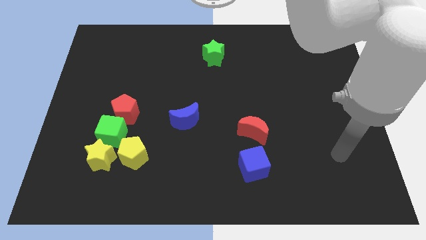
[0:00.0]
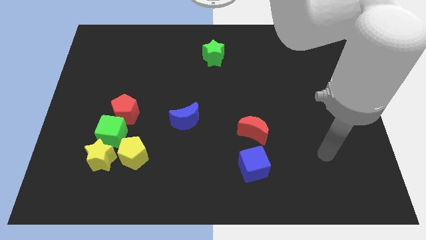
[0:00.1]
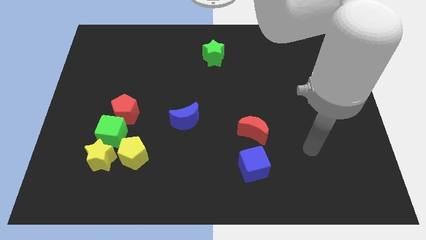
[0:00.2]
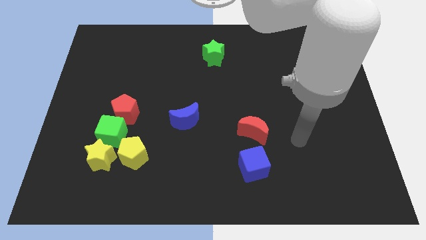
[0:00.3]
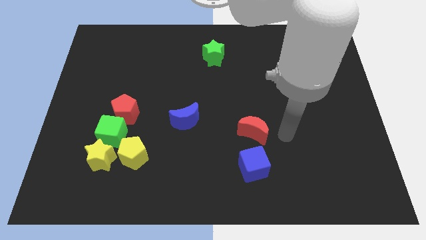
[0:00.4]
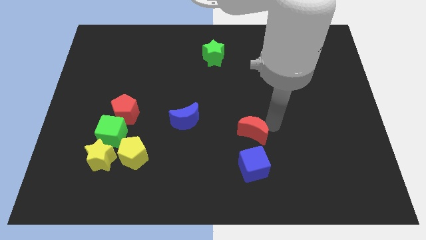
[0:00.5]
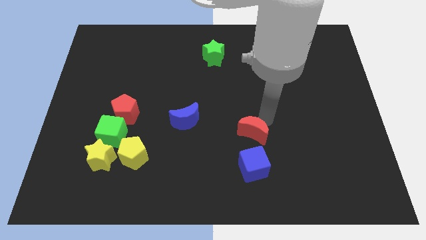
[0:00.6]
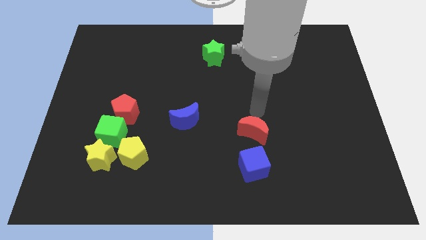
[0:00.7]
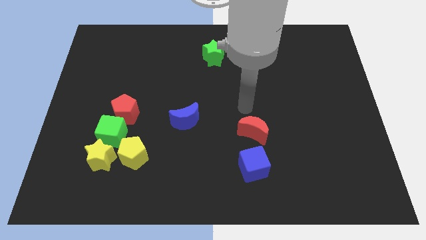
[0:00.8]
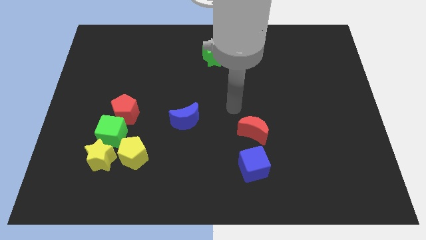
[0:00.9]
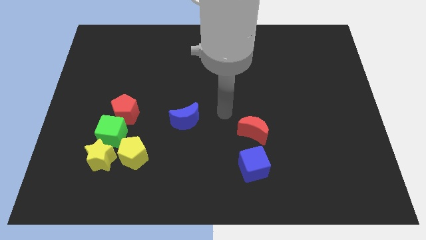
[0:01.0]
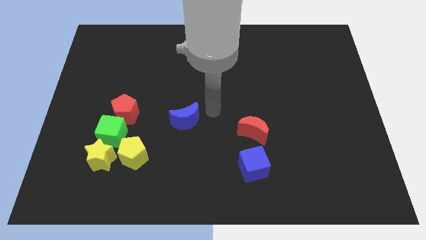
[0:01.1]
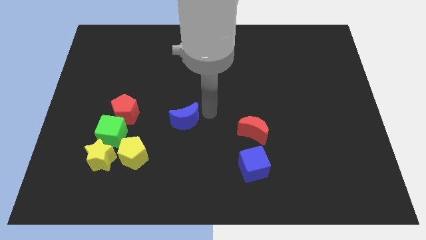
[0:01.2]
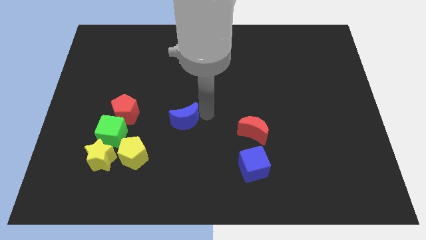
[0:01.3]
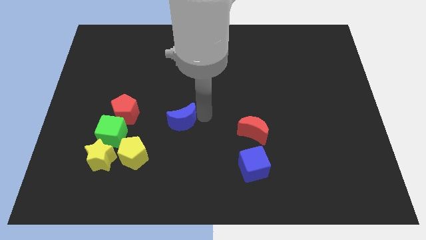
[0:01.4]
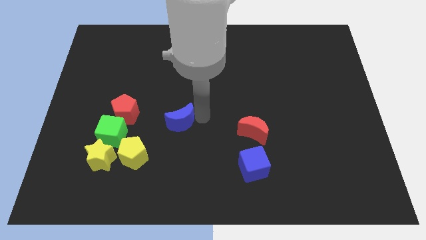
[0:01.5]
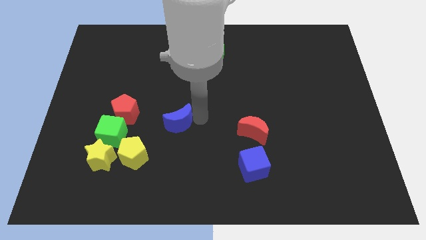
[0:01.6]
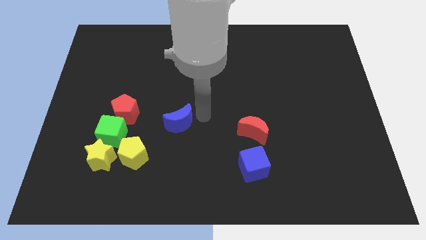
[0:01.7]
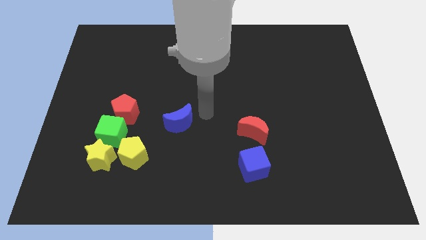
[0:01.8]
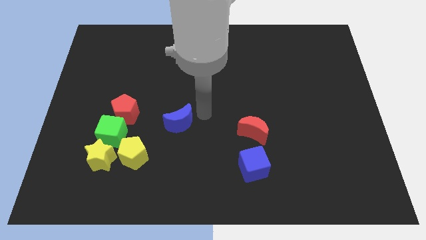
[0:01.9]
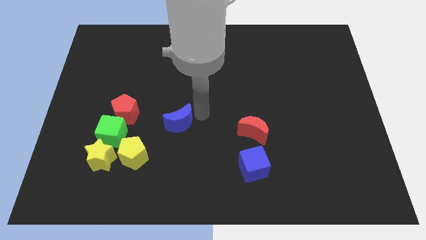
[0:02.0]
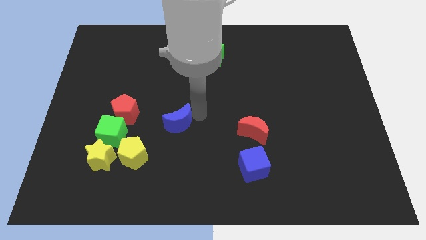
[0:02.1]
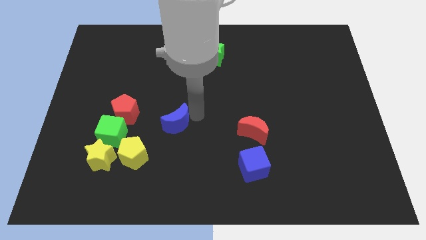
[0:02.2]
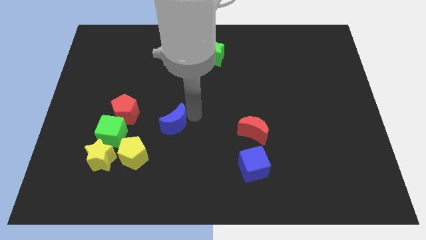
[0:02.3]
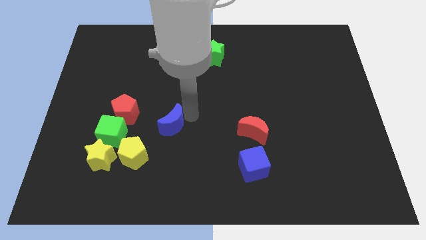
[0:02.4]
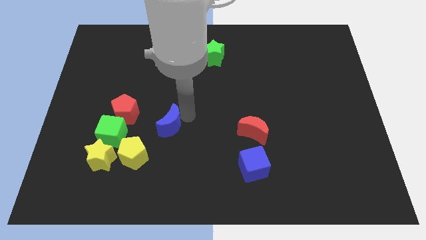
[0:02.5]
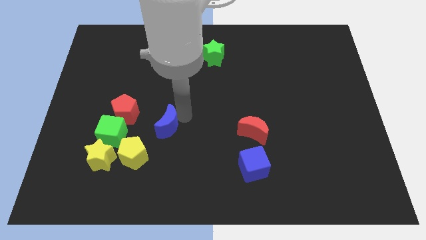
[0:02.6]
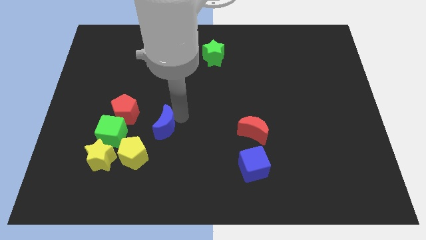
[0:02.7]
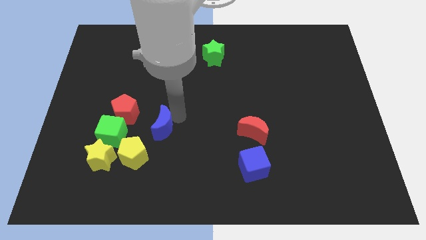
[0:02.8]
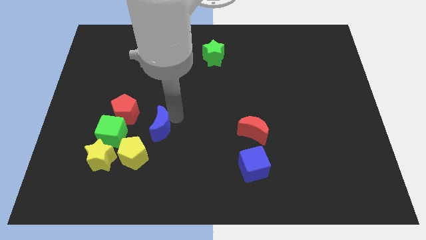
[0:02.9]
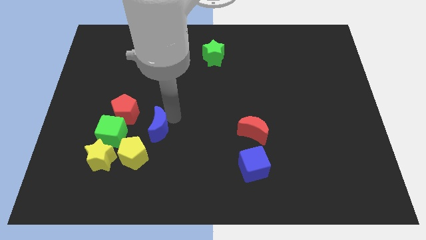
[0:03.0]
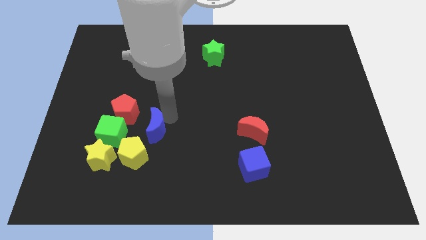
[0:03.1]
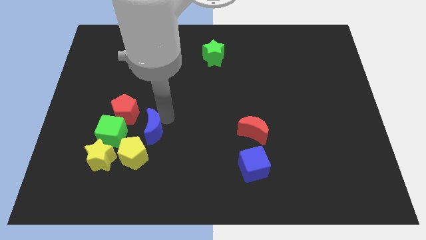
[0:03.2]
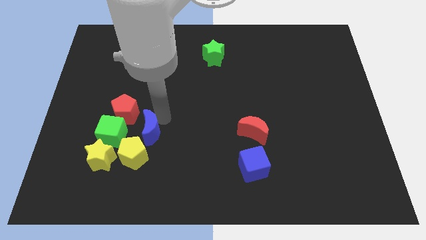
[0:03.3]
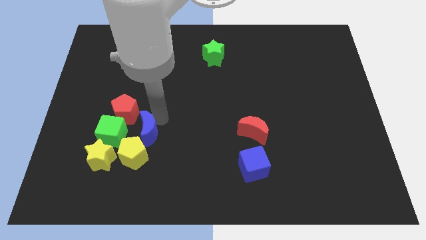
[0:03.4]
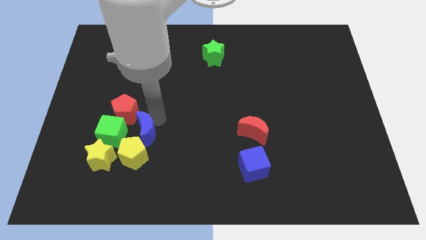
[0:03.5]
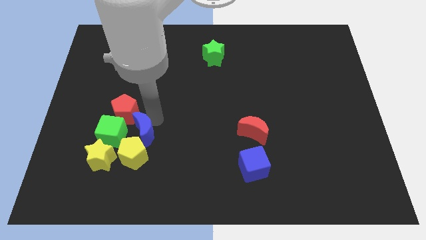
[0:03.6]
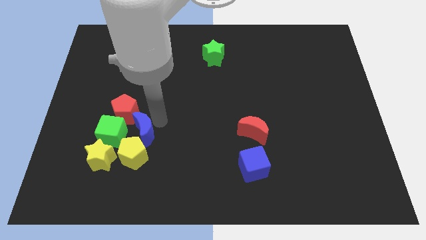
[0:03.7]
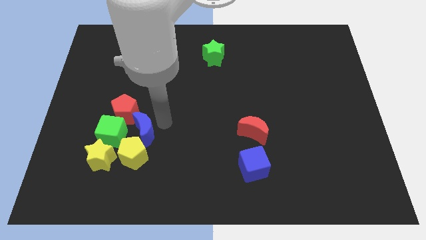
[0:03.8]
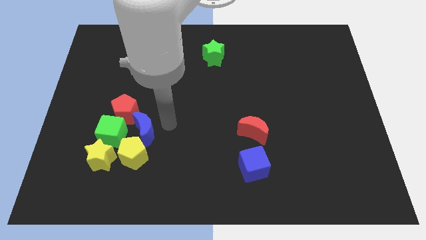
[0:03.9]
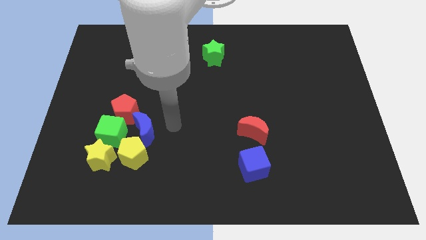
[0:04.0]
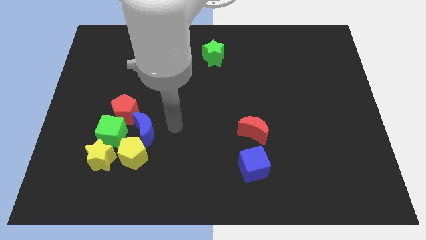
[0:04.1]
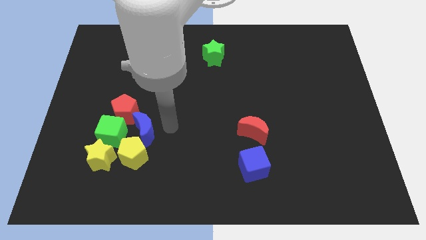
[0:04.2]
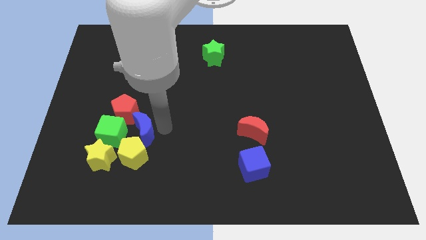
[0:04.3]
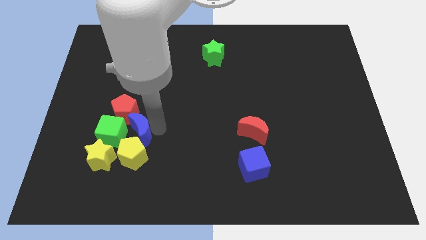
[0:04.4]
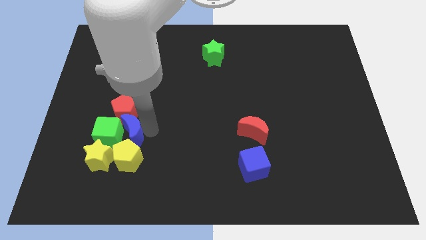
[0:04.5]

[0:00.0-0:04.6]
slide the blue moon to the green cube

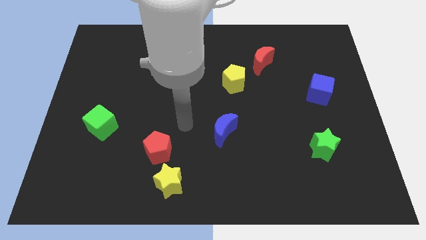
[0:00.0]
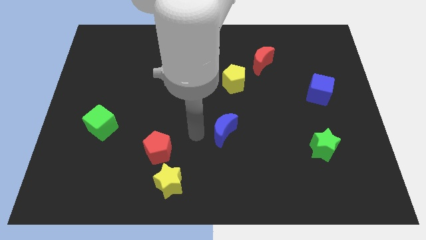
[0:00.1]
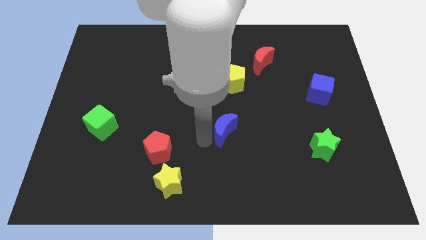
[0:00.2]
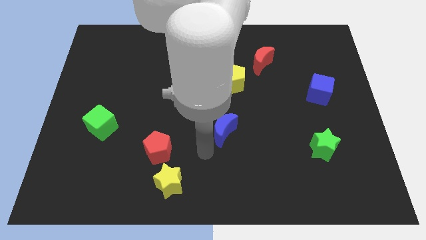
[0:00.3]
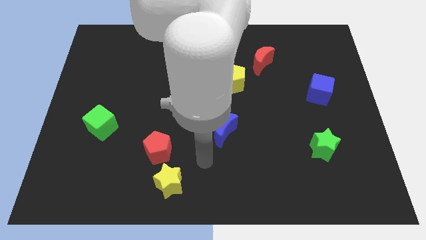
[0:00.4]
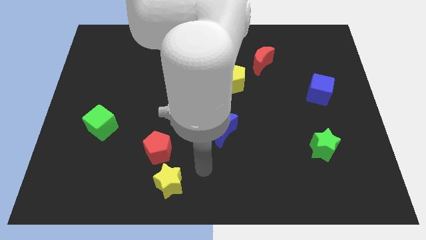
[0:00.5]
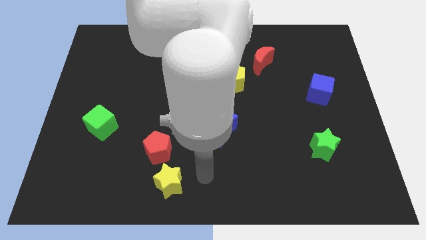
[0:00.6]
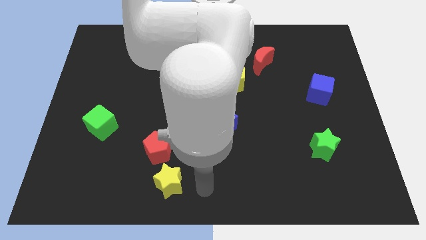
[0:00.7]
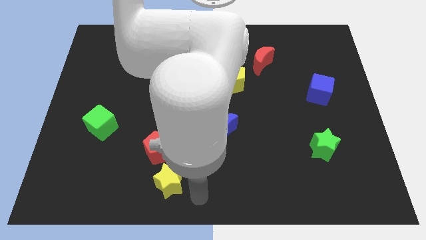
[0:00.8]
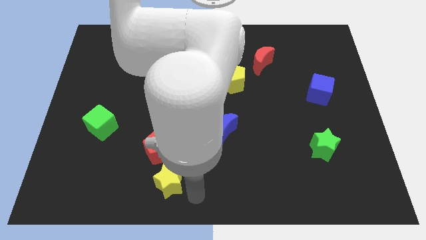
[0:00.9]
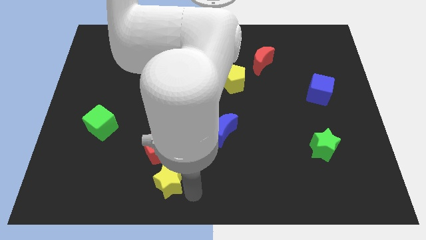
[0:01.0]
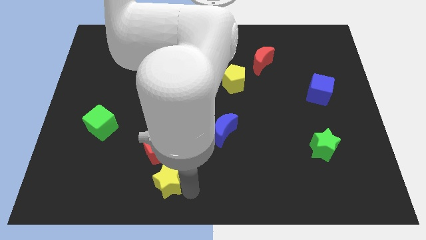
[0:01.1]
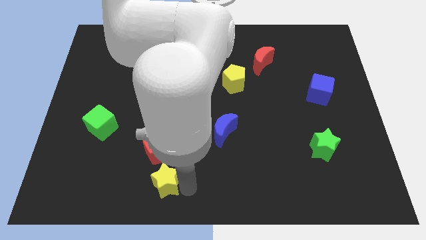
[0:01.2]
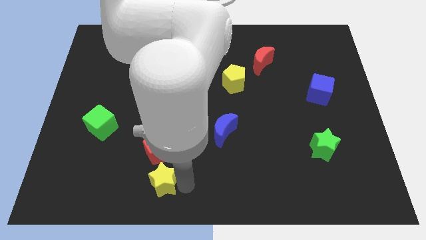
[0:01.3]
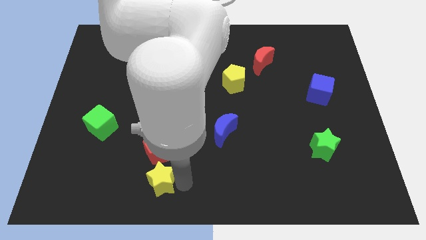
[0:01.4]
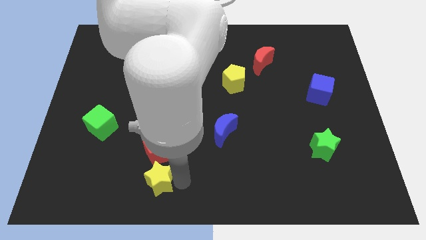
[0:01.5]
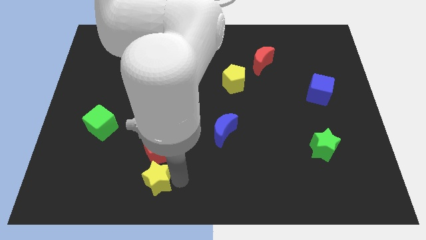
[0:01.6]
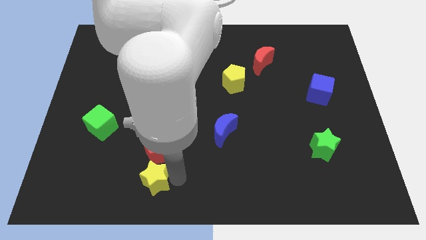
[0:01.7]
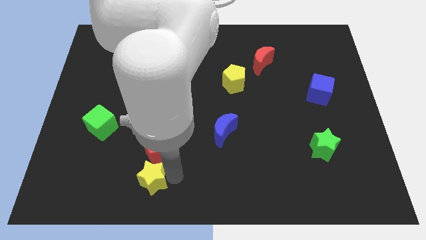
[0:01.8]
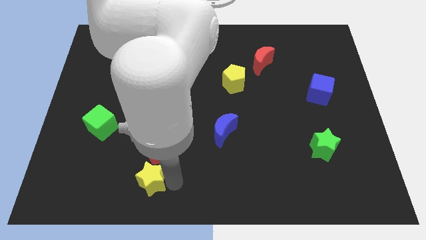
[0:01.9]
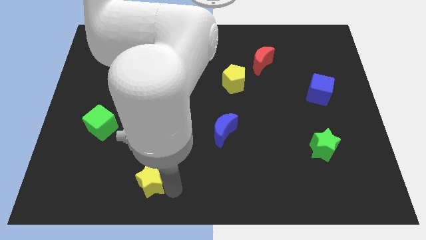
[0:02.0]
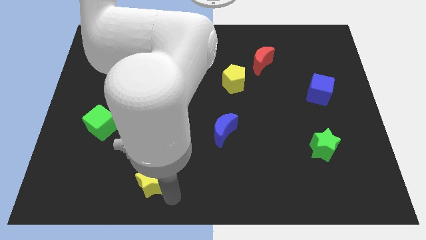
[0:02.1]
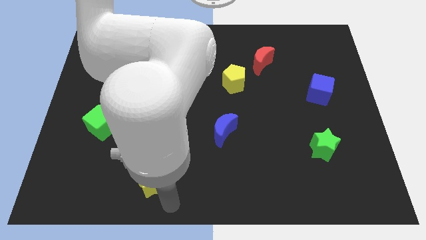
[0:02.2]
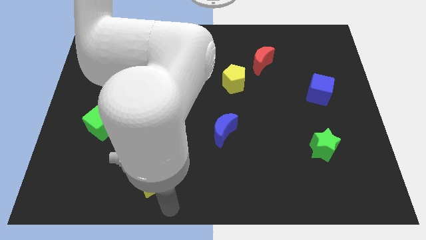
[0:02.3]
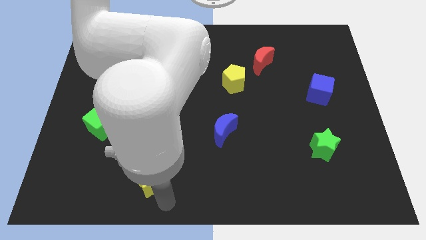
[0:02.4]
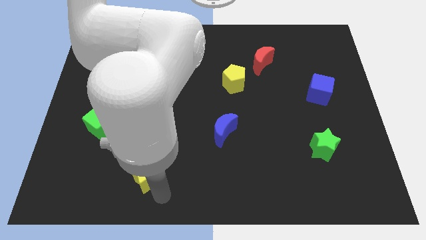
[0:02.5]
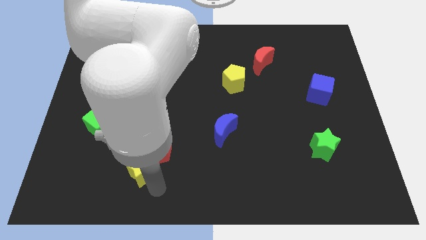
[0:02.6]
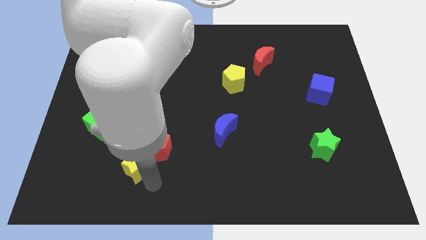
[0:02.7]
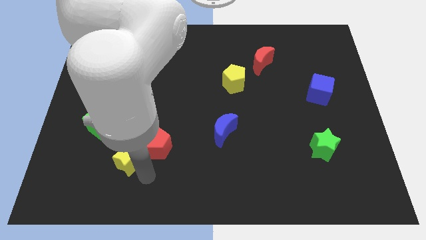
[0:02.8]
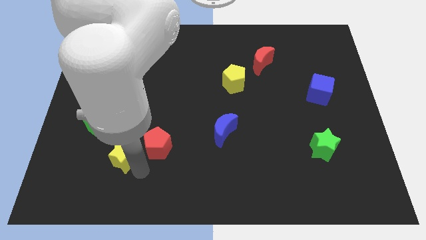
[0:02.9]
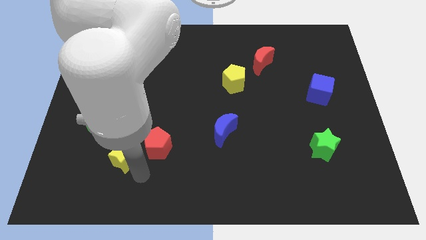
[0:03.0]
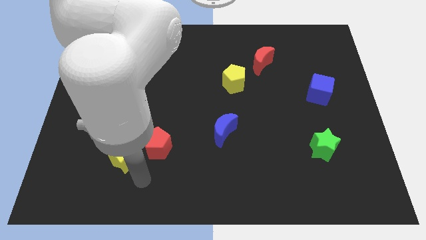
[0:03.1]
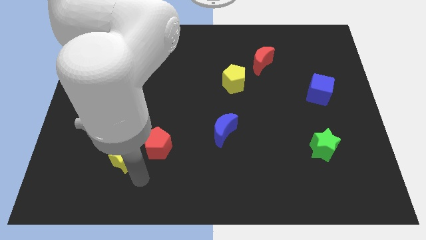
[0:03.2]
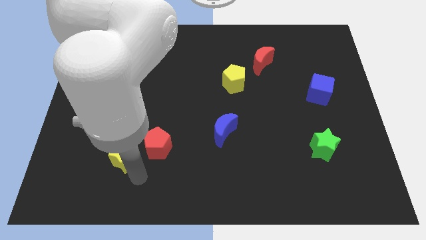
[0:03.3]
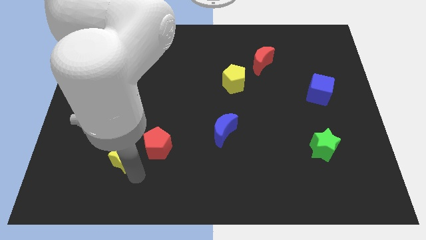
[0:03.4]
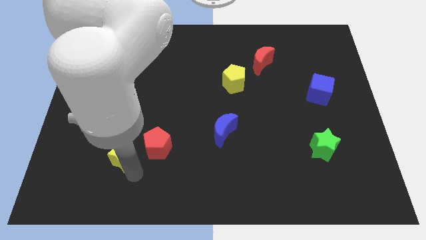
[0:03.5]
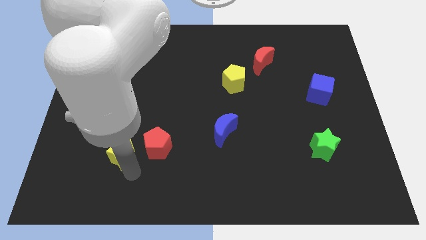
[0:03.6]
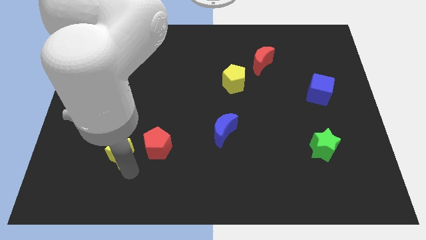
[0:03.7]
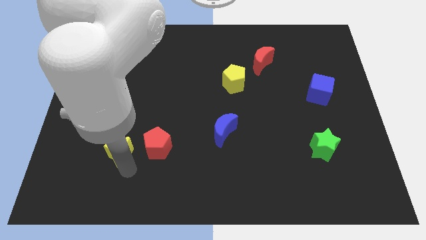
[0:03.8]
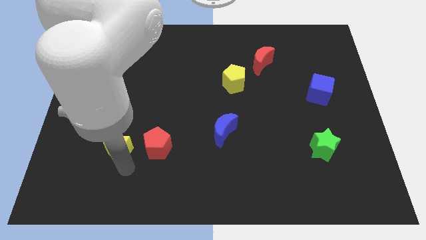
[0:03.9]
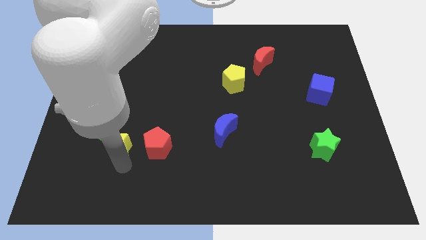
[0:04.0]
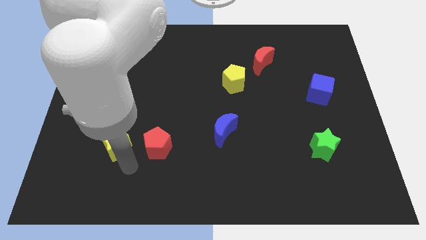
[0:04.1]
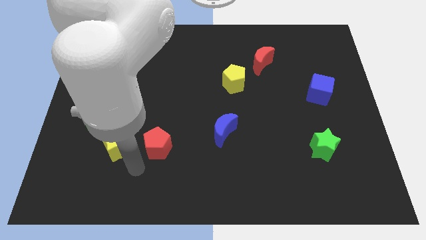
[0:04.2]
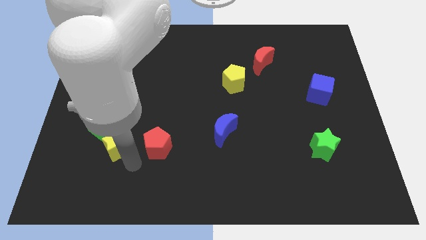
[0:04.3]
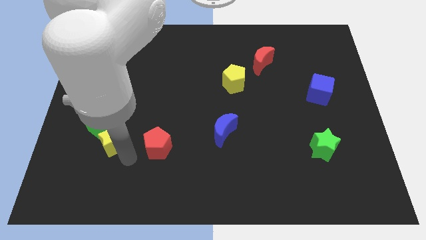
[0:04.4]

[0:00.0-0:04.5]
put the yellow star close to the green cube
